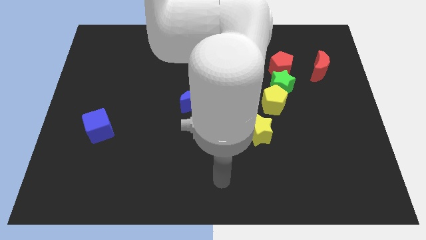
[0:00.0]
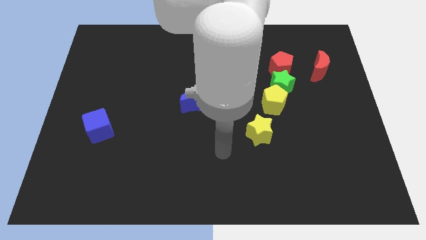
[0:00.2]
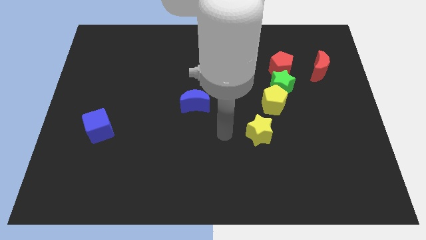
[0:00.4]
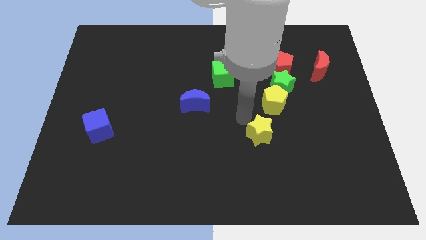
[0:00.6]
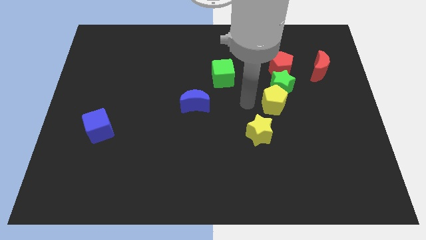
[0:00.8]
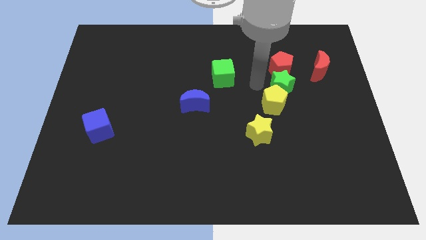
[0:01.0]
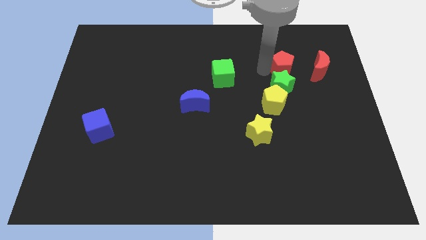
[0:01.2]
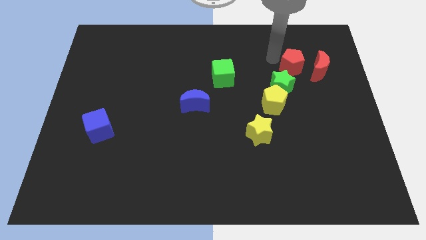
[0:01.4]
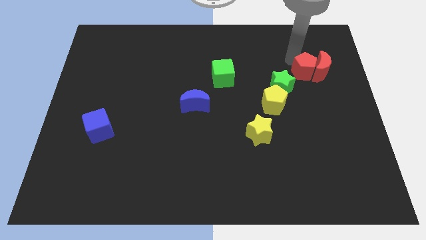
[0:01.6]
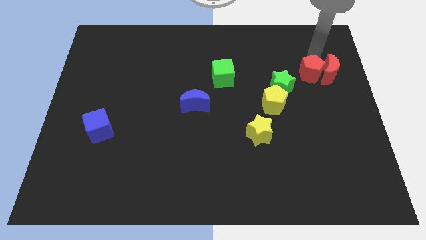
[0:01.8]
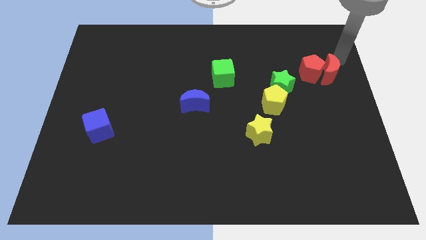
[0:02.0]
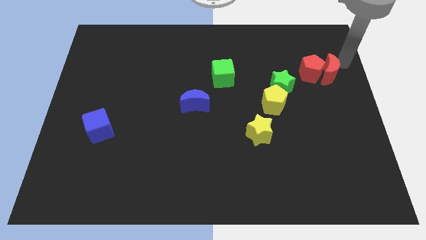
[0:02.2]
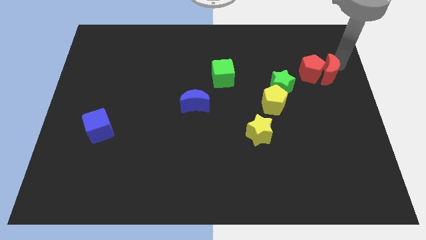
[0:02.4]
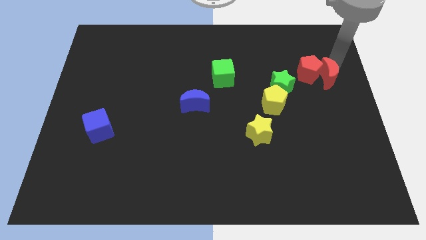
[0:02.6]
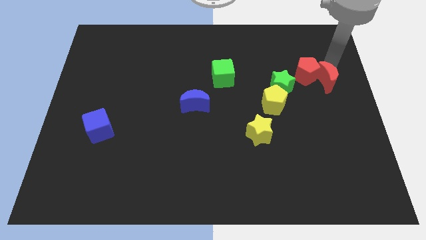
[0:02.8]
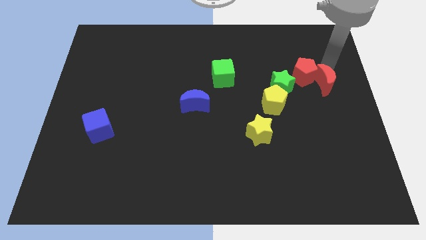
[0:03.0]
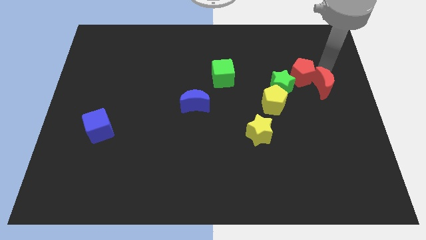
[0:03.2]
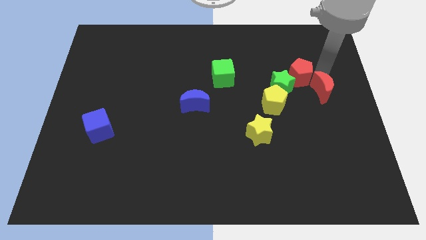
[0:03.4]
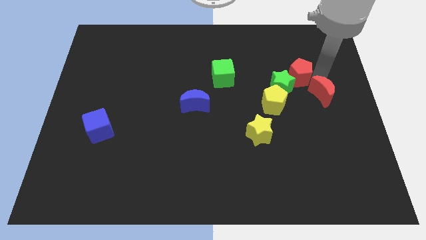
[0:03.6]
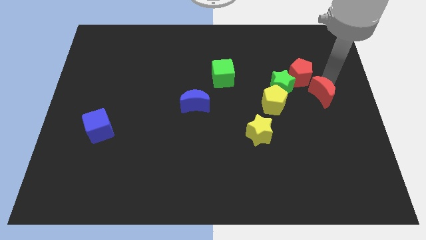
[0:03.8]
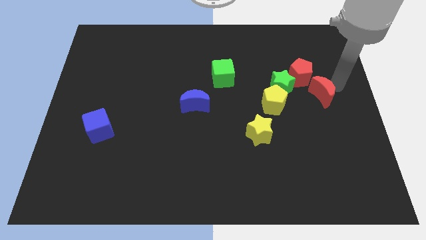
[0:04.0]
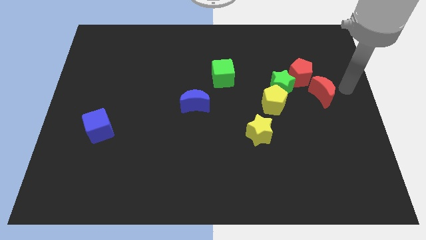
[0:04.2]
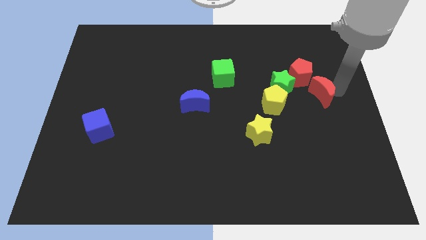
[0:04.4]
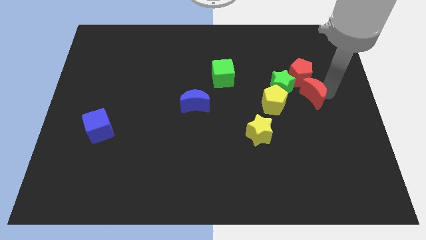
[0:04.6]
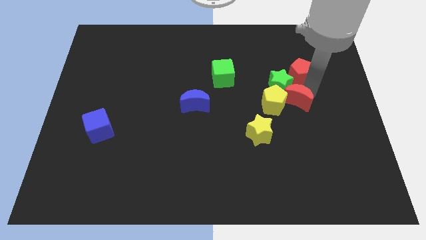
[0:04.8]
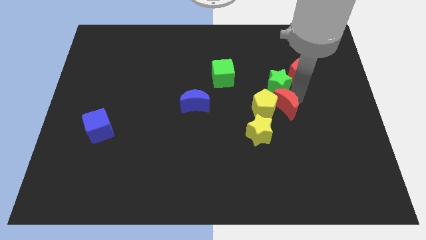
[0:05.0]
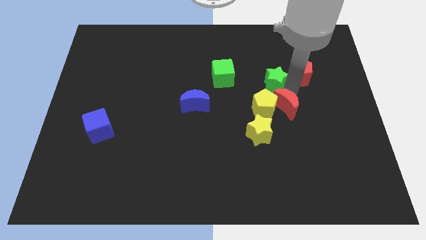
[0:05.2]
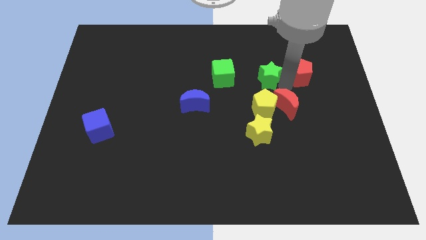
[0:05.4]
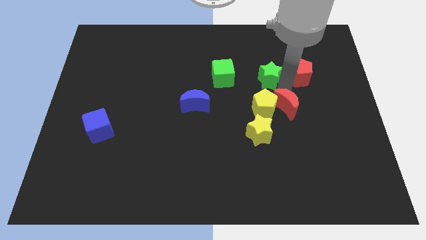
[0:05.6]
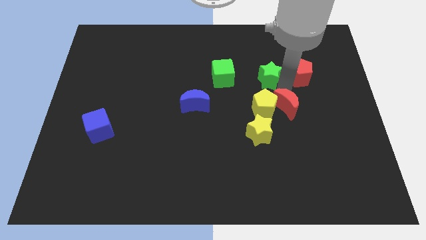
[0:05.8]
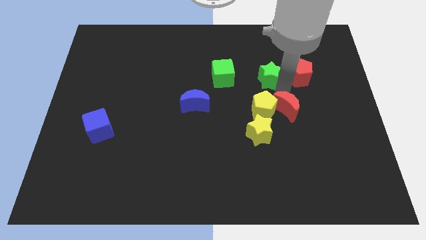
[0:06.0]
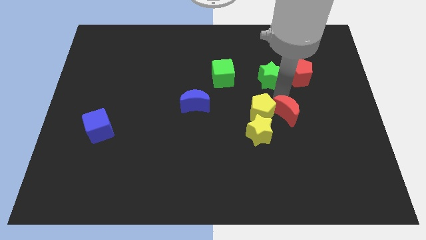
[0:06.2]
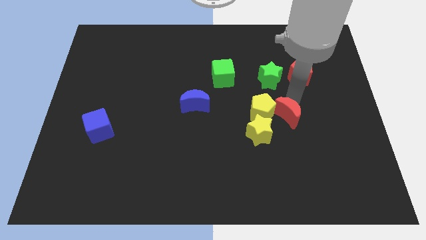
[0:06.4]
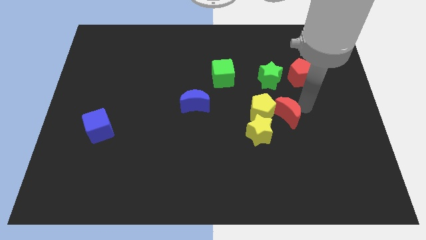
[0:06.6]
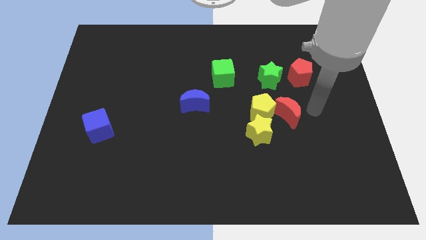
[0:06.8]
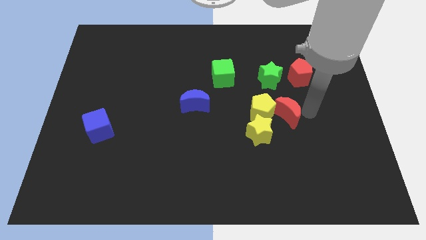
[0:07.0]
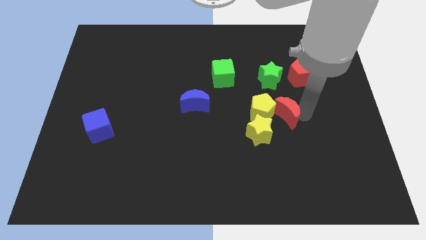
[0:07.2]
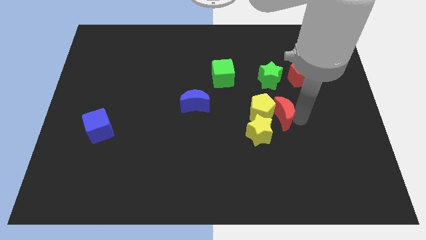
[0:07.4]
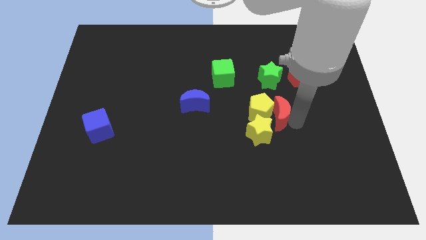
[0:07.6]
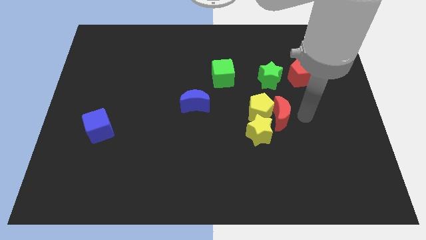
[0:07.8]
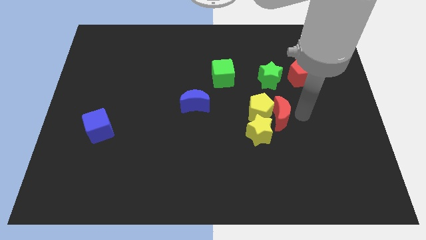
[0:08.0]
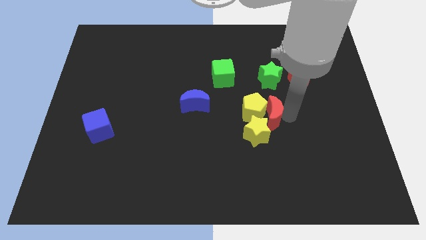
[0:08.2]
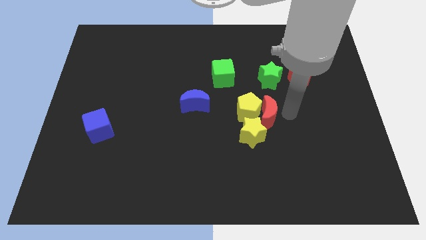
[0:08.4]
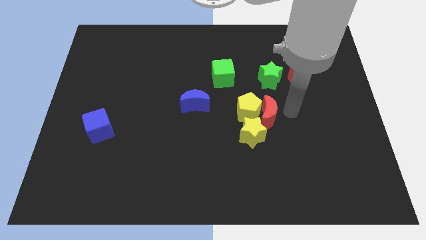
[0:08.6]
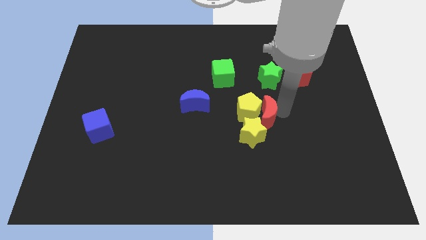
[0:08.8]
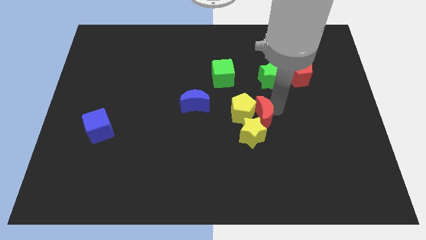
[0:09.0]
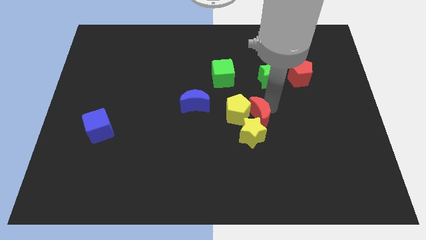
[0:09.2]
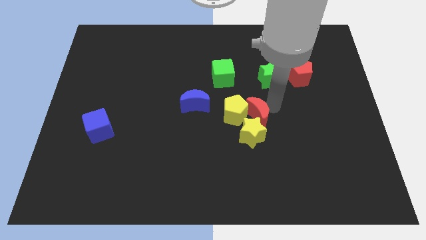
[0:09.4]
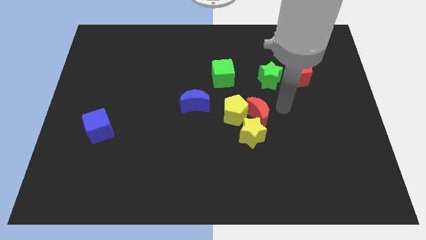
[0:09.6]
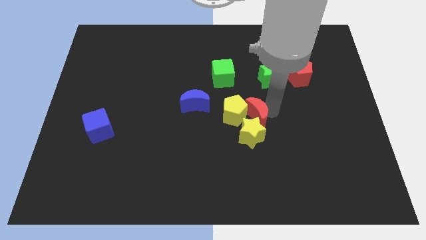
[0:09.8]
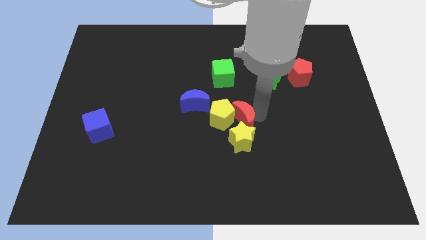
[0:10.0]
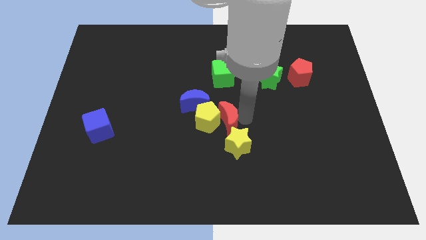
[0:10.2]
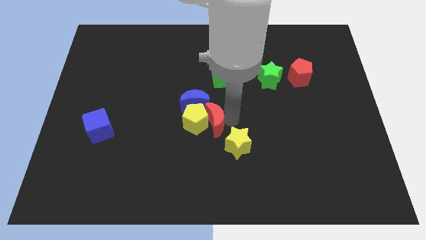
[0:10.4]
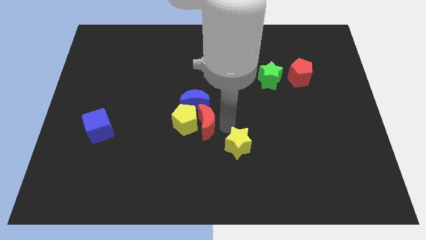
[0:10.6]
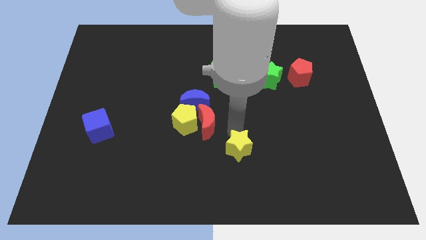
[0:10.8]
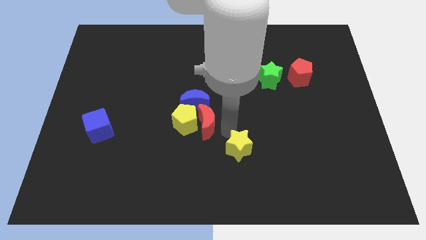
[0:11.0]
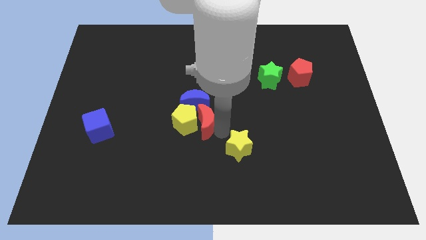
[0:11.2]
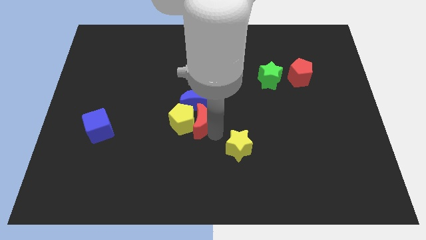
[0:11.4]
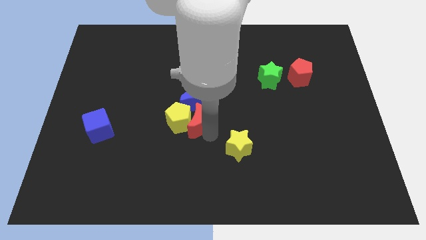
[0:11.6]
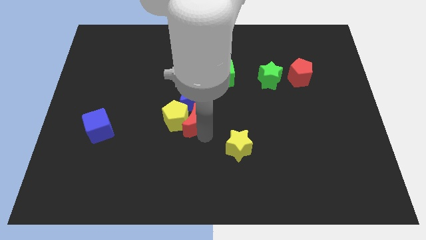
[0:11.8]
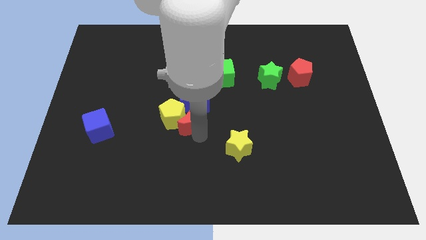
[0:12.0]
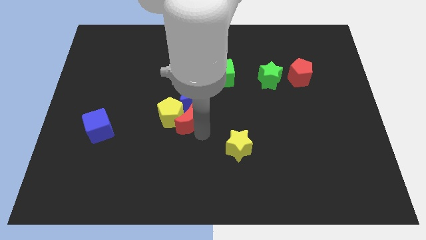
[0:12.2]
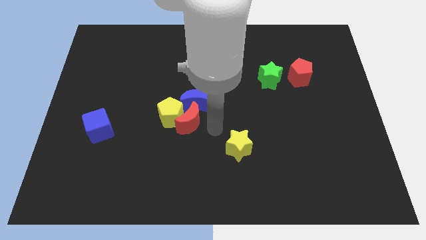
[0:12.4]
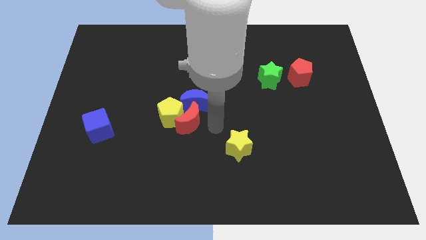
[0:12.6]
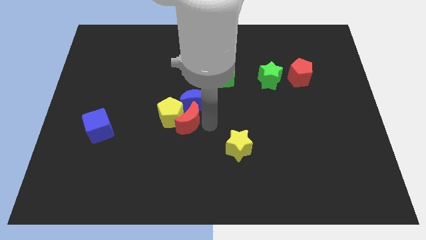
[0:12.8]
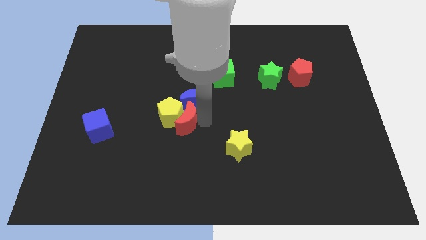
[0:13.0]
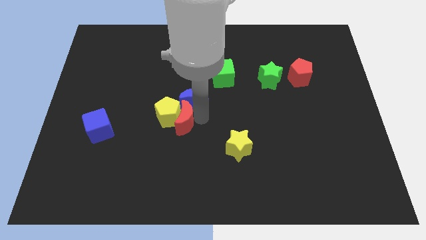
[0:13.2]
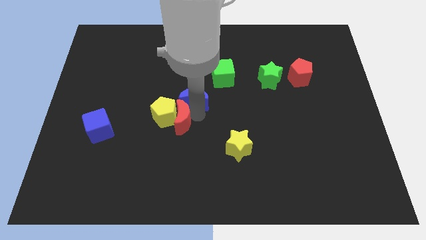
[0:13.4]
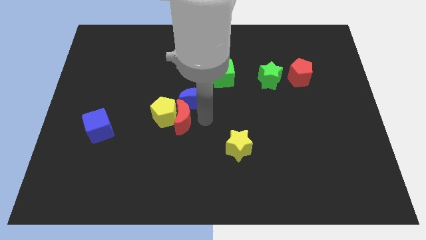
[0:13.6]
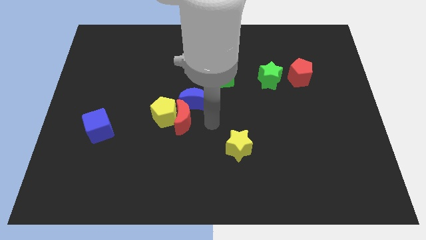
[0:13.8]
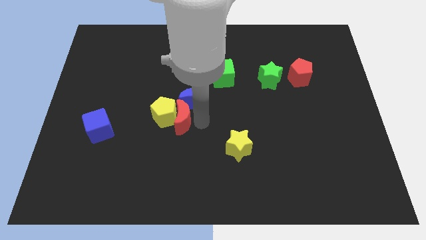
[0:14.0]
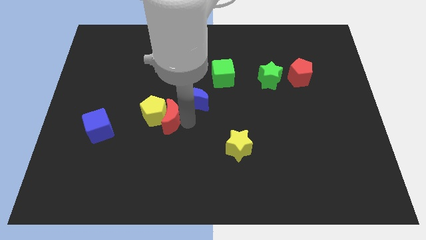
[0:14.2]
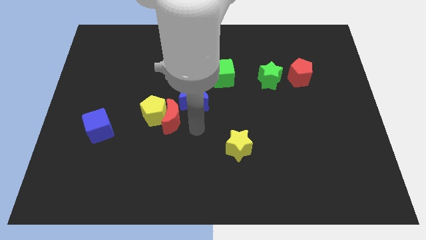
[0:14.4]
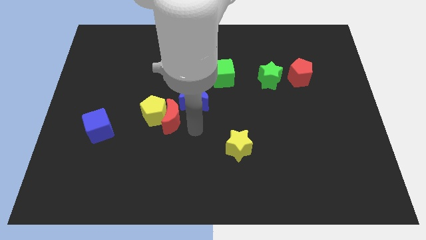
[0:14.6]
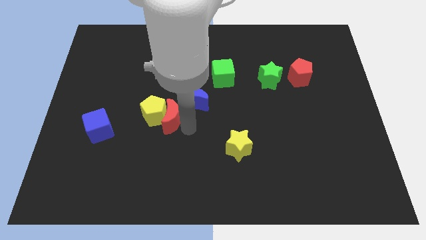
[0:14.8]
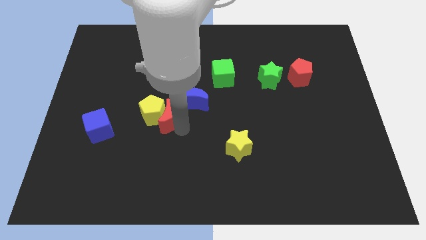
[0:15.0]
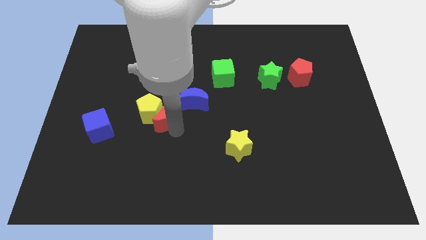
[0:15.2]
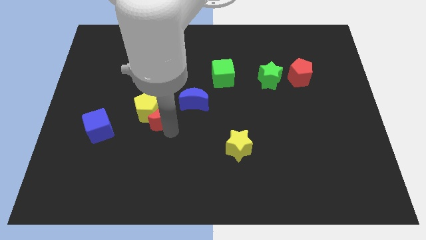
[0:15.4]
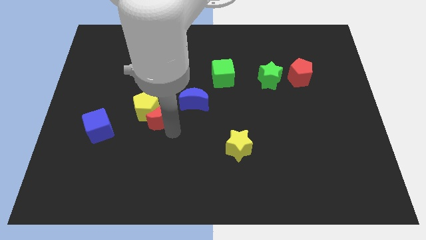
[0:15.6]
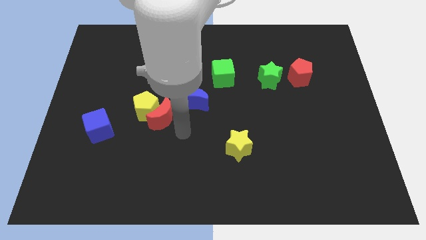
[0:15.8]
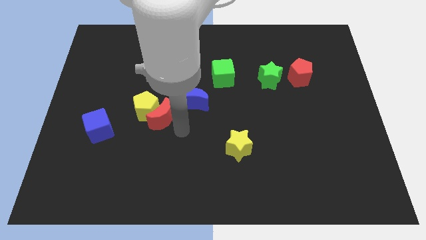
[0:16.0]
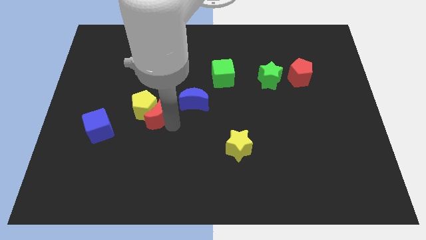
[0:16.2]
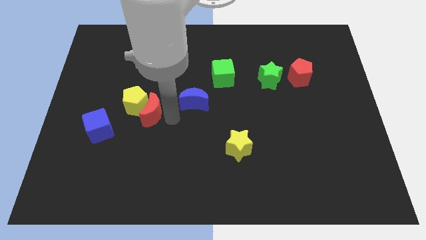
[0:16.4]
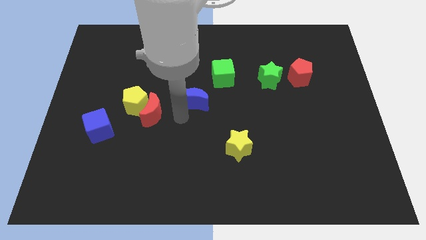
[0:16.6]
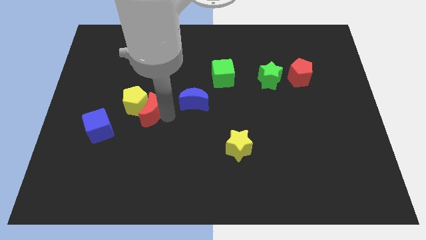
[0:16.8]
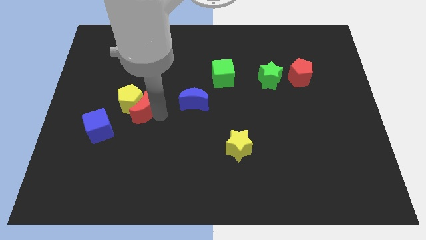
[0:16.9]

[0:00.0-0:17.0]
put the red moon diagonally up and to the right of the blue cube
